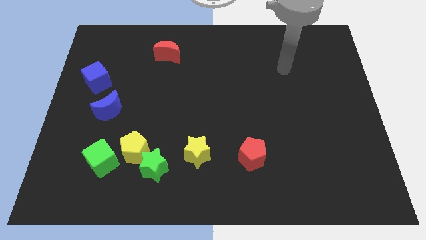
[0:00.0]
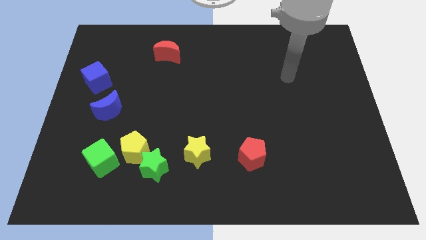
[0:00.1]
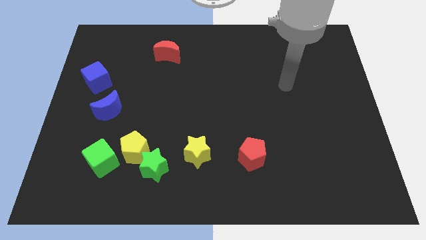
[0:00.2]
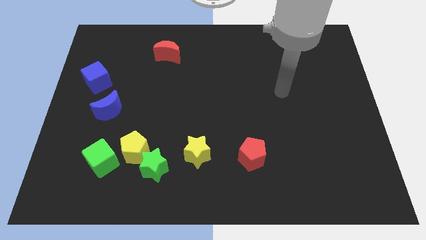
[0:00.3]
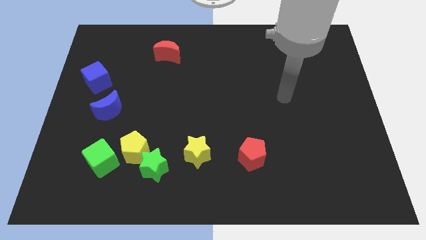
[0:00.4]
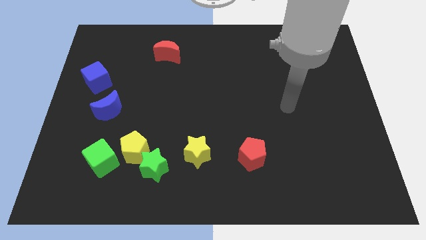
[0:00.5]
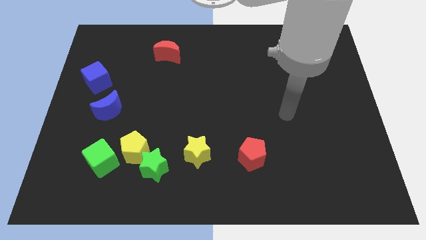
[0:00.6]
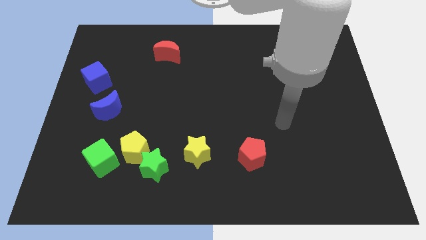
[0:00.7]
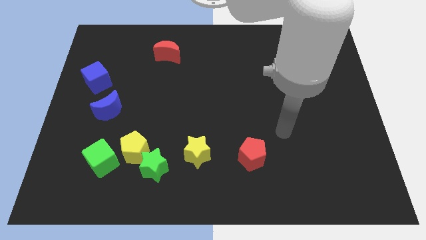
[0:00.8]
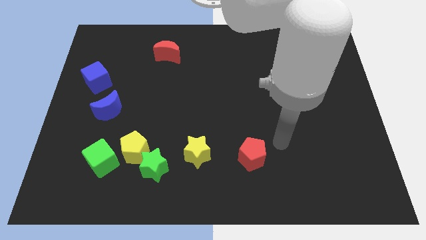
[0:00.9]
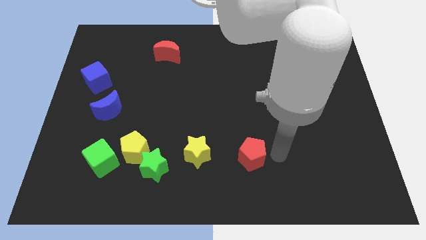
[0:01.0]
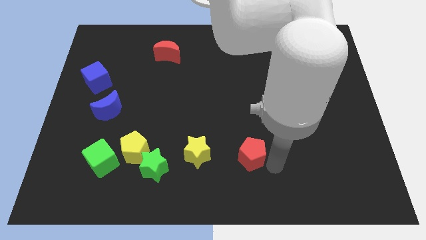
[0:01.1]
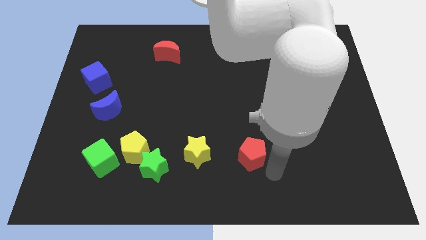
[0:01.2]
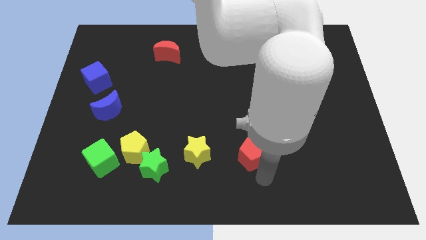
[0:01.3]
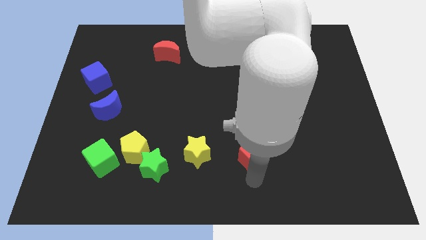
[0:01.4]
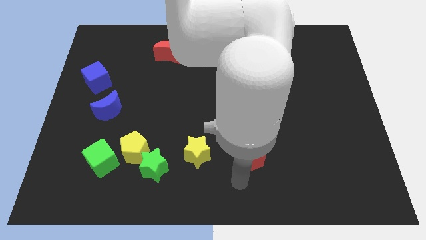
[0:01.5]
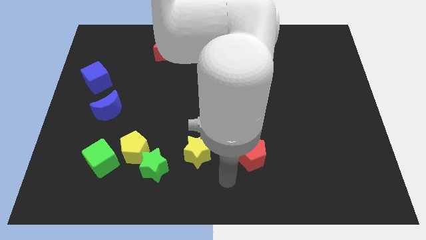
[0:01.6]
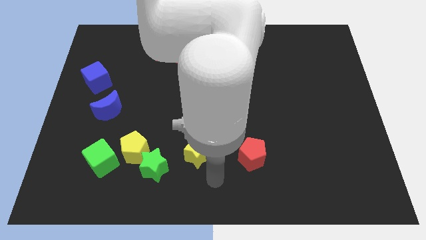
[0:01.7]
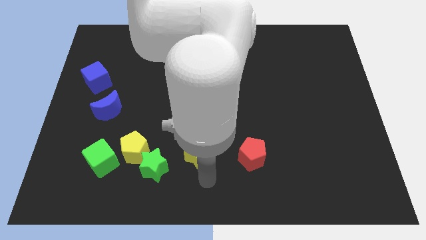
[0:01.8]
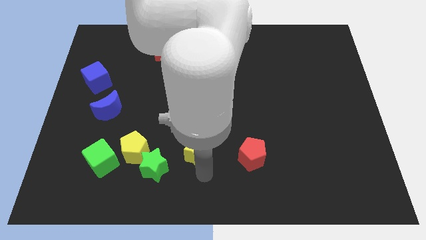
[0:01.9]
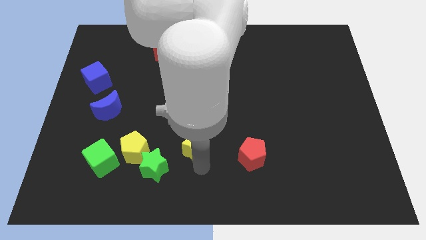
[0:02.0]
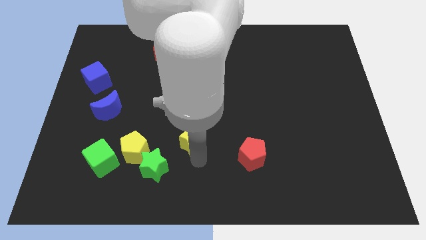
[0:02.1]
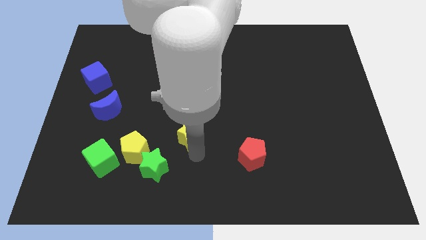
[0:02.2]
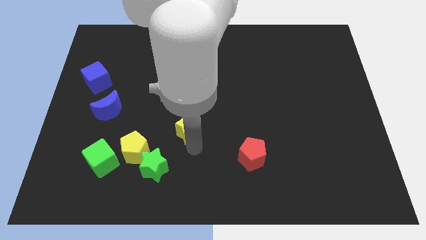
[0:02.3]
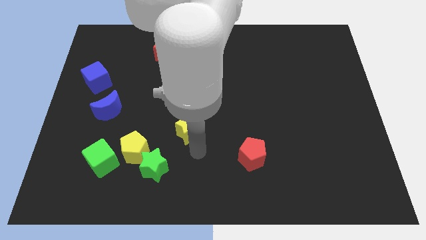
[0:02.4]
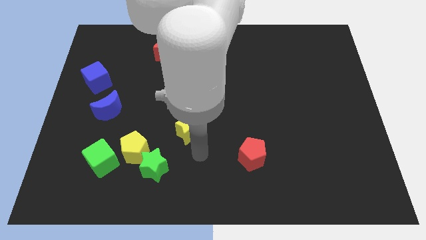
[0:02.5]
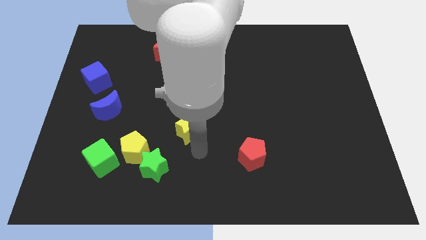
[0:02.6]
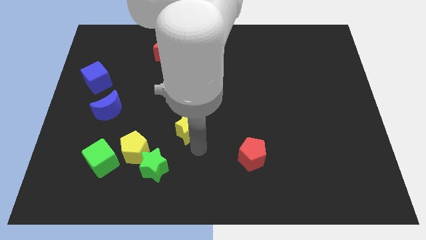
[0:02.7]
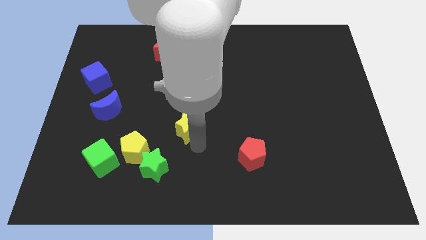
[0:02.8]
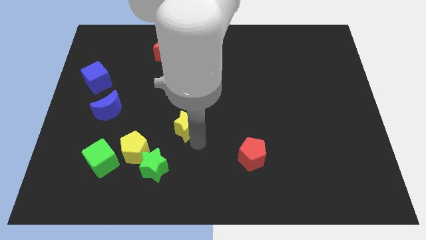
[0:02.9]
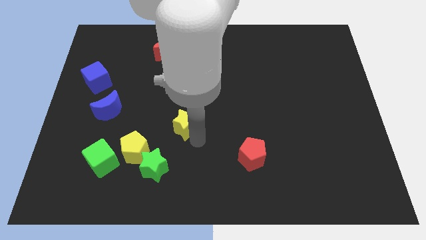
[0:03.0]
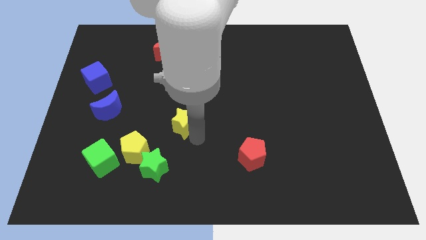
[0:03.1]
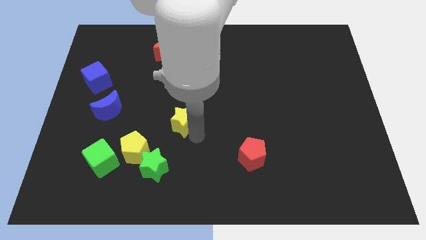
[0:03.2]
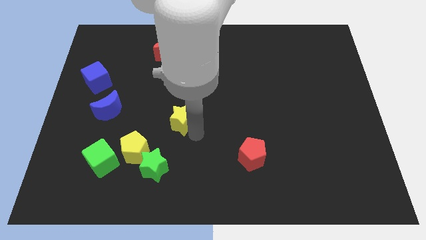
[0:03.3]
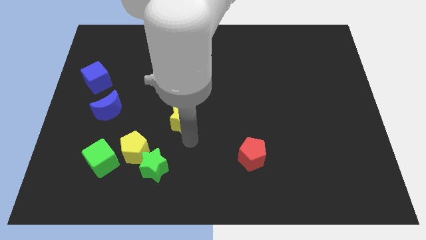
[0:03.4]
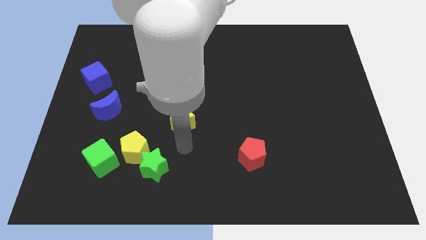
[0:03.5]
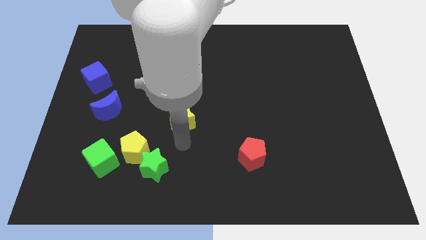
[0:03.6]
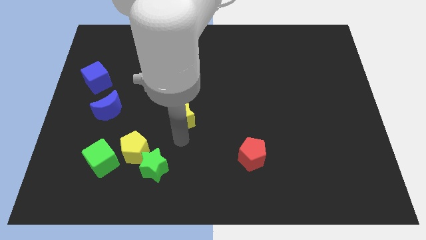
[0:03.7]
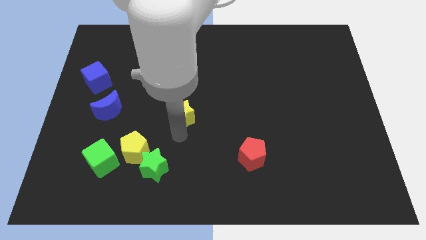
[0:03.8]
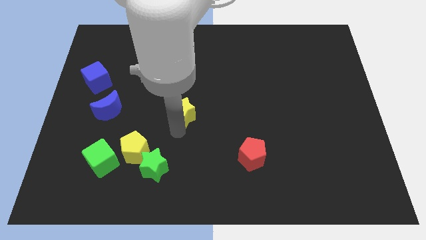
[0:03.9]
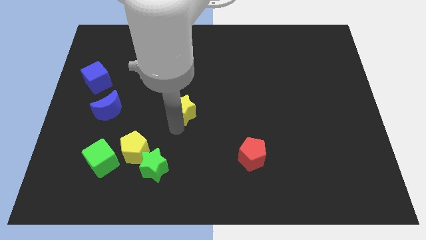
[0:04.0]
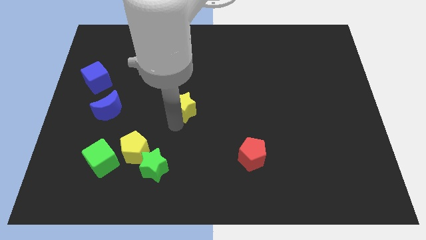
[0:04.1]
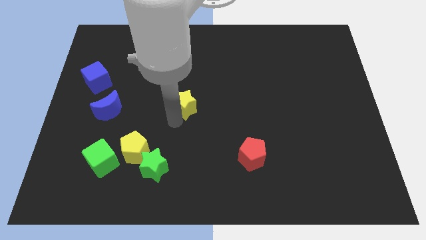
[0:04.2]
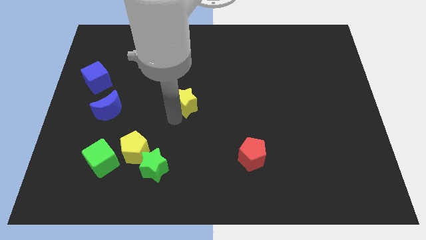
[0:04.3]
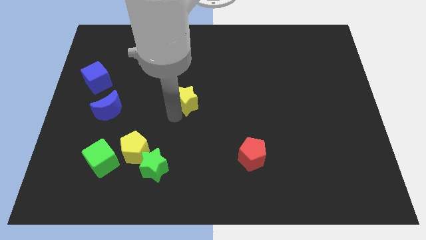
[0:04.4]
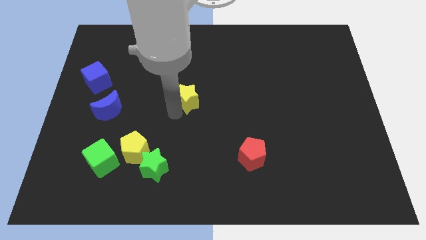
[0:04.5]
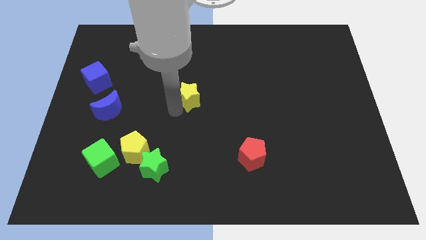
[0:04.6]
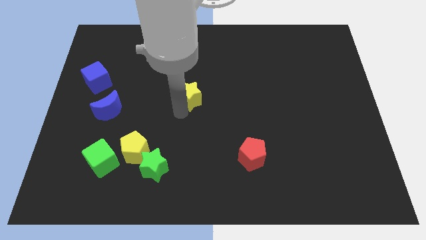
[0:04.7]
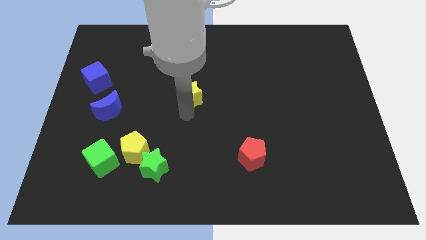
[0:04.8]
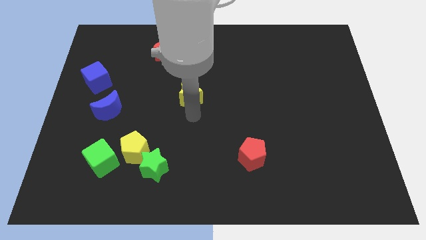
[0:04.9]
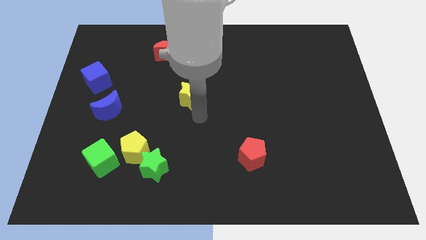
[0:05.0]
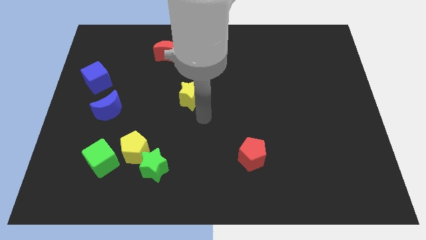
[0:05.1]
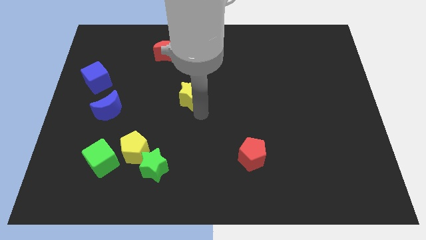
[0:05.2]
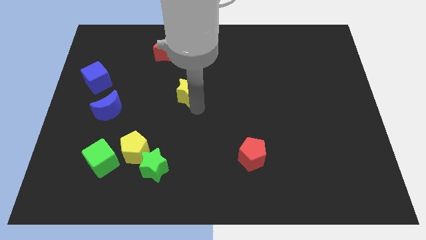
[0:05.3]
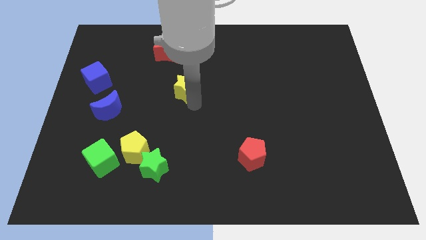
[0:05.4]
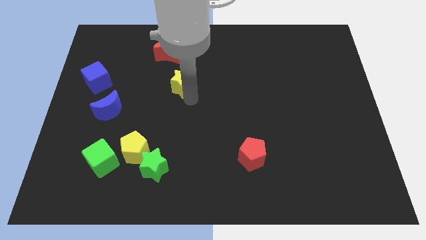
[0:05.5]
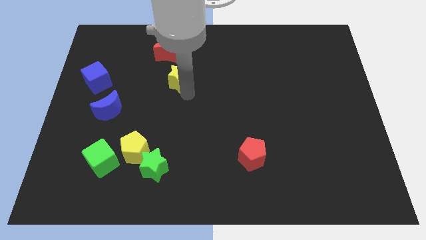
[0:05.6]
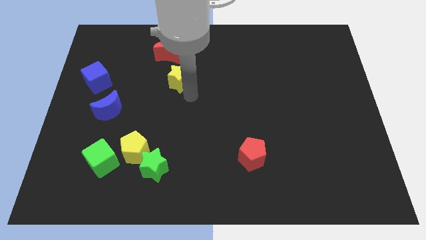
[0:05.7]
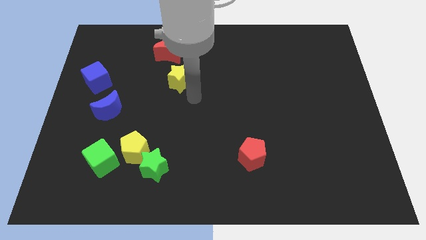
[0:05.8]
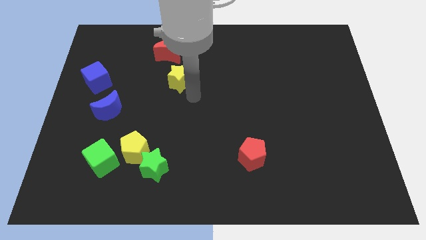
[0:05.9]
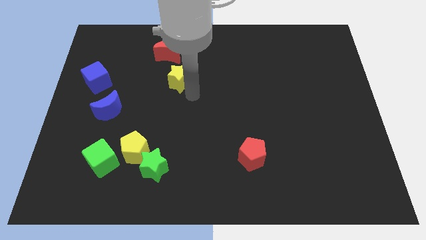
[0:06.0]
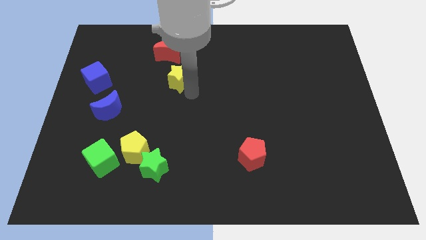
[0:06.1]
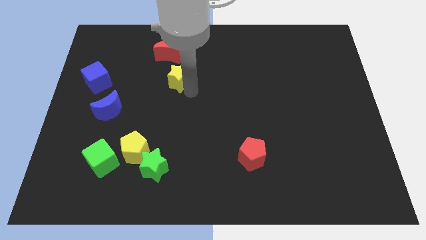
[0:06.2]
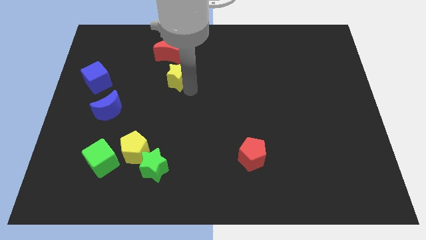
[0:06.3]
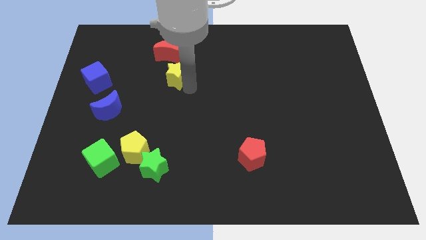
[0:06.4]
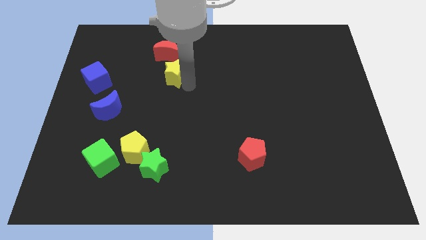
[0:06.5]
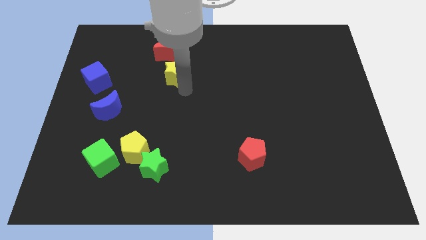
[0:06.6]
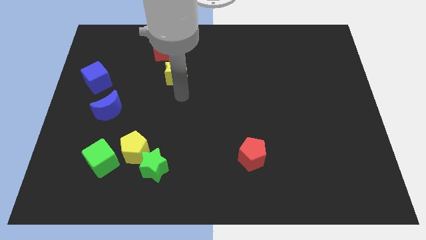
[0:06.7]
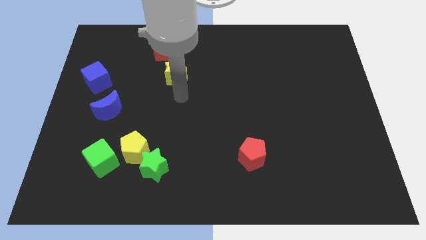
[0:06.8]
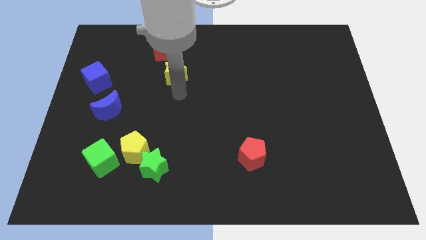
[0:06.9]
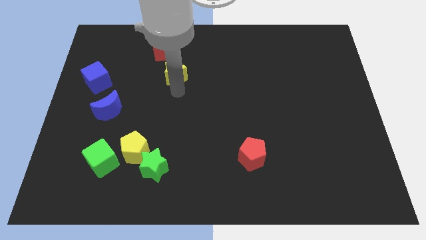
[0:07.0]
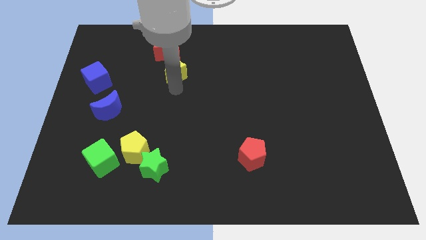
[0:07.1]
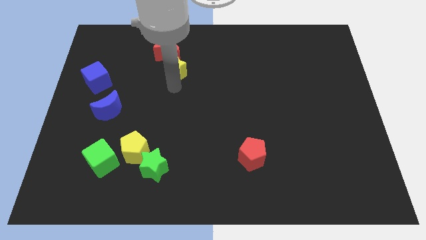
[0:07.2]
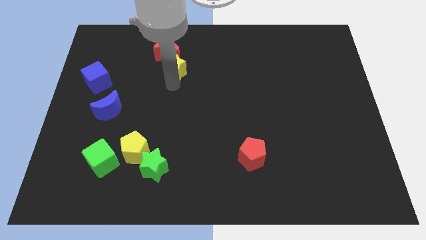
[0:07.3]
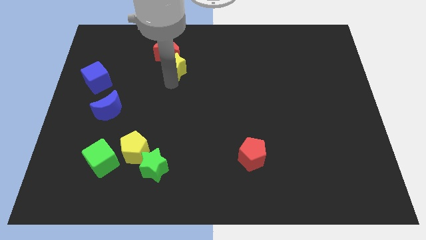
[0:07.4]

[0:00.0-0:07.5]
put the yellow star to the red moon
